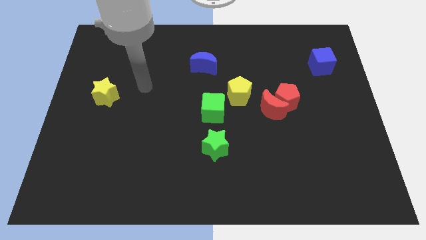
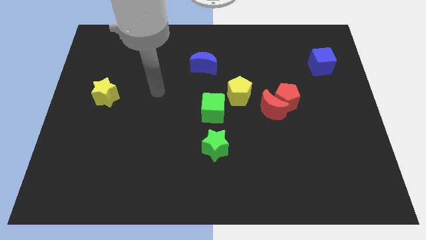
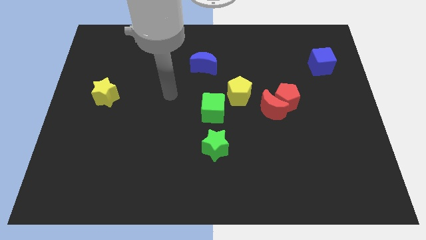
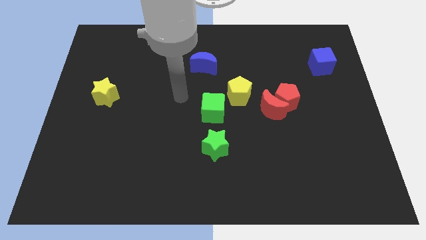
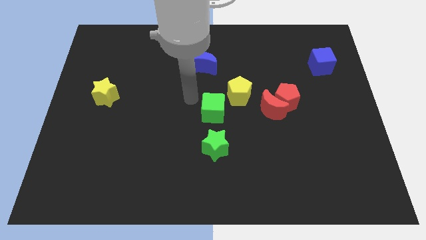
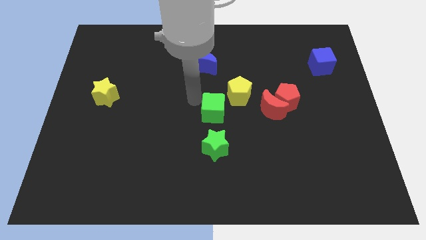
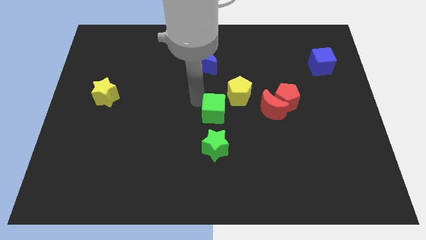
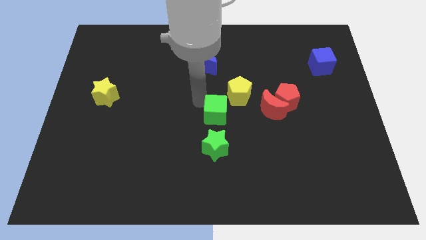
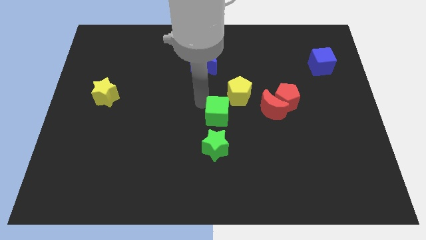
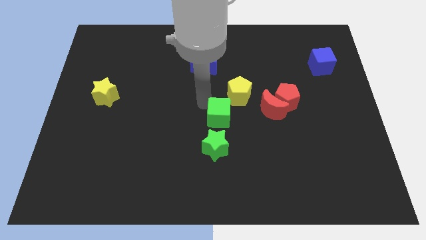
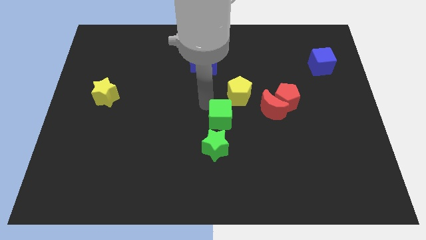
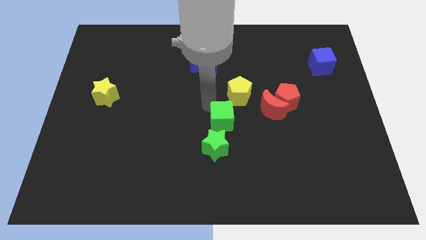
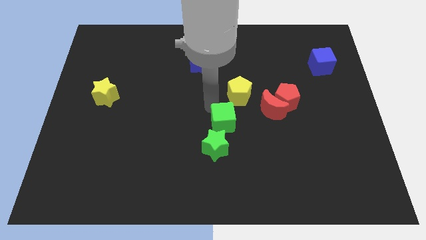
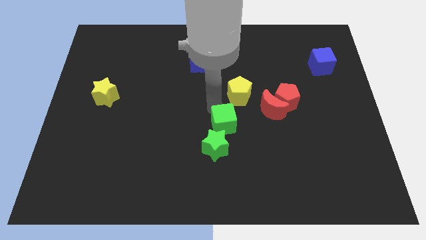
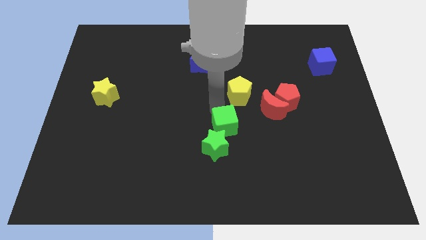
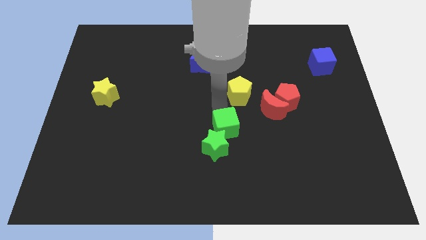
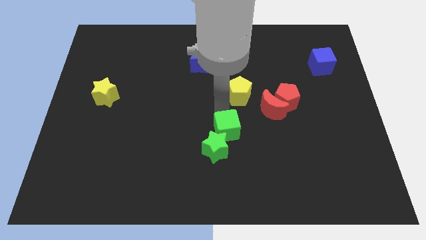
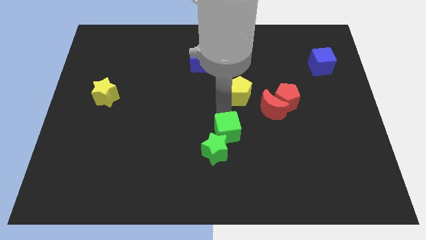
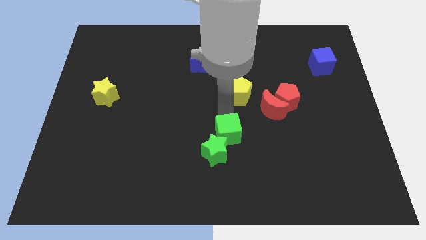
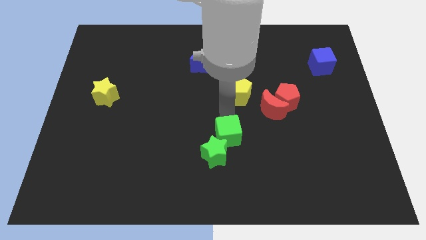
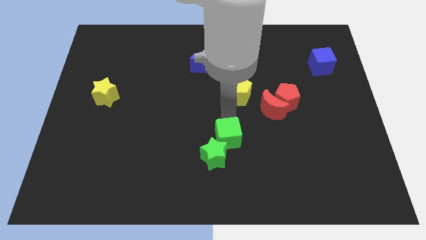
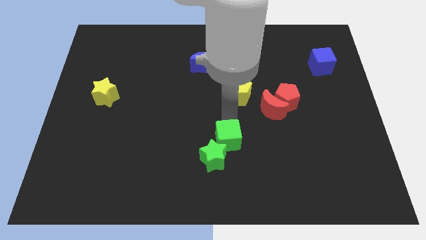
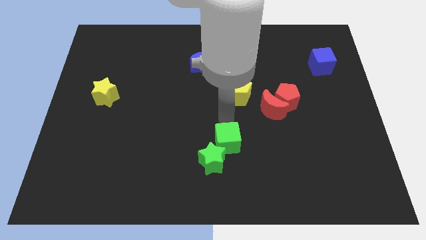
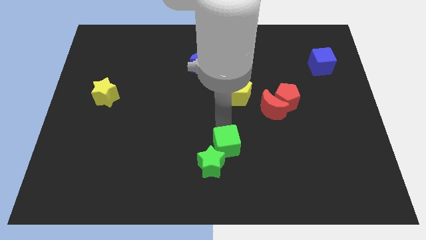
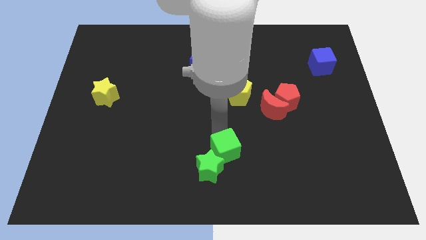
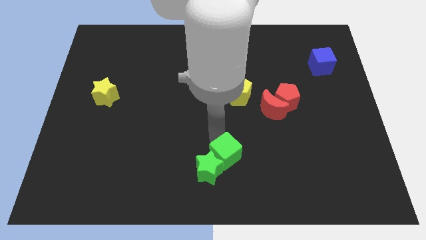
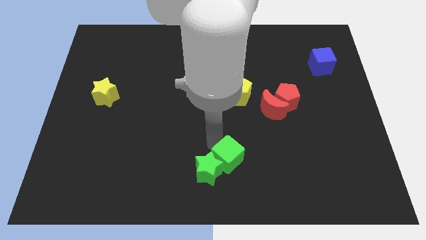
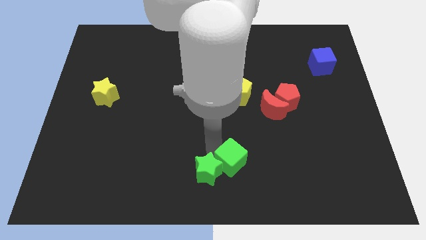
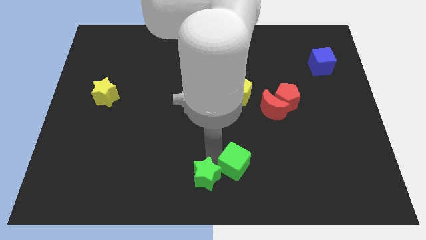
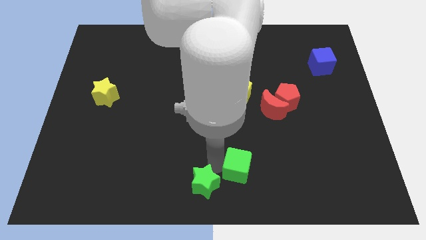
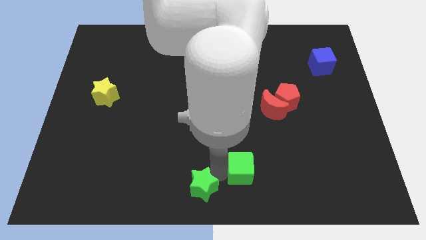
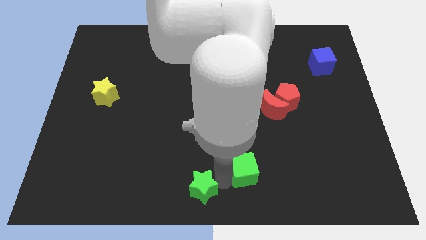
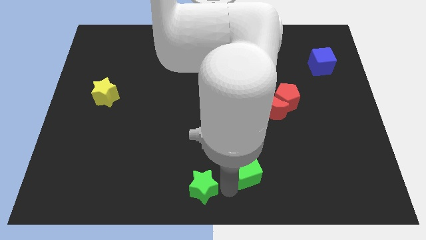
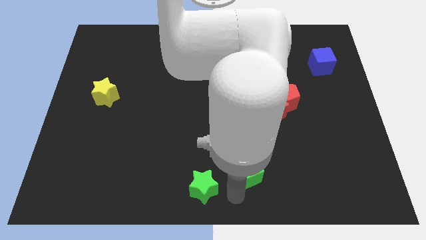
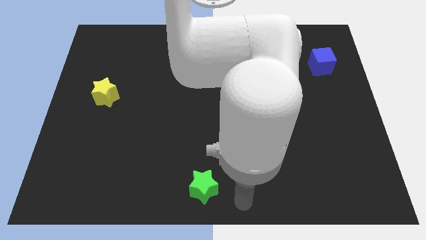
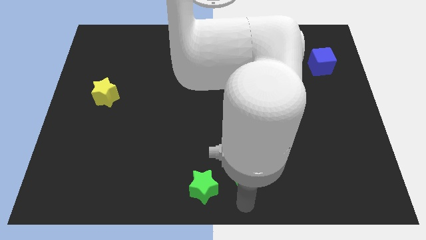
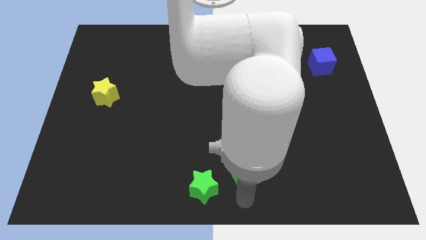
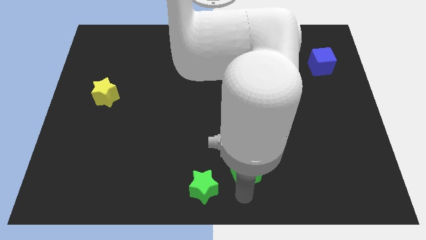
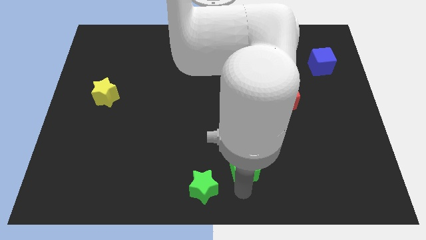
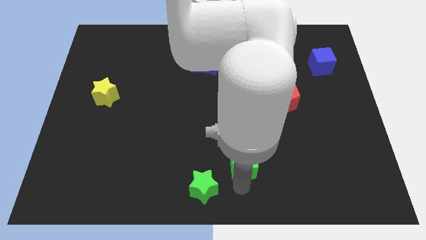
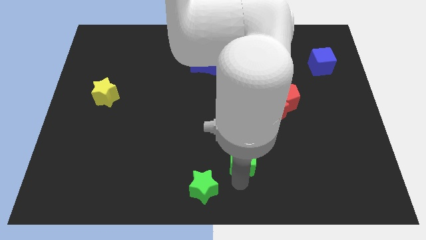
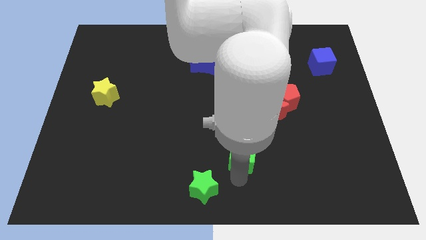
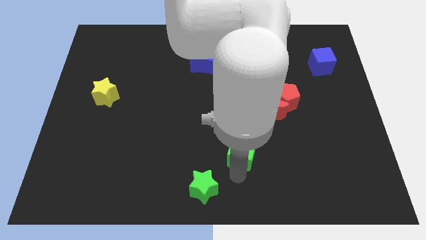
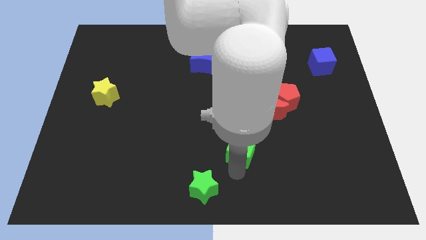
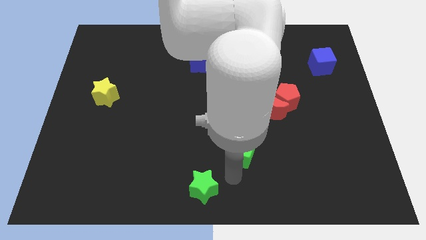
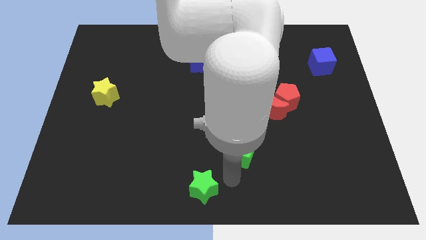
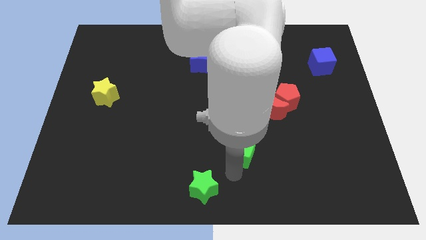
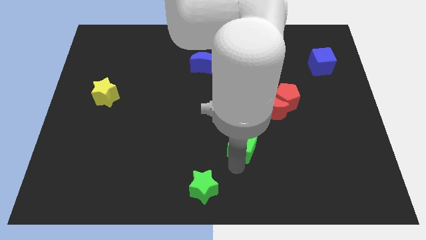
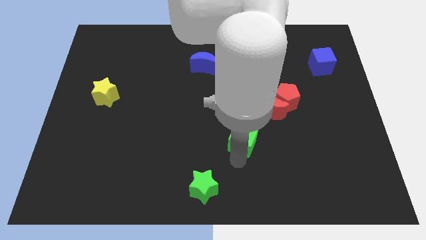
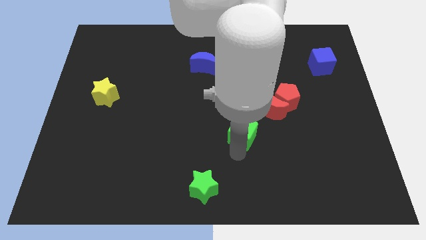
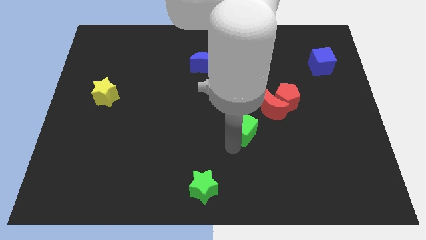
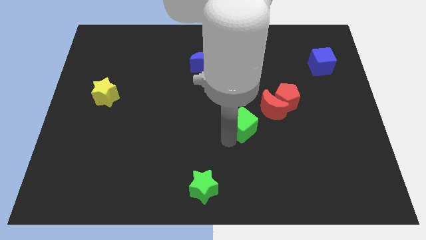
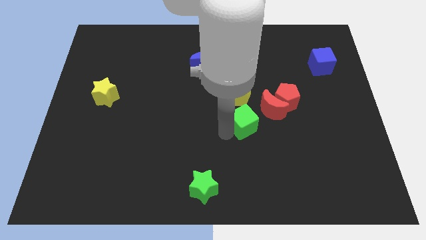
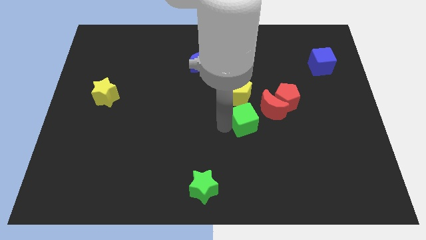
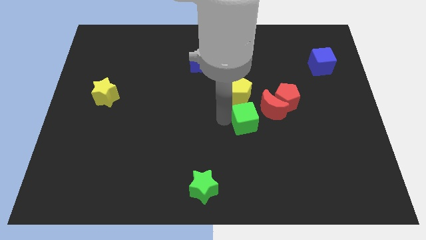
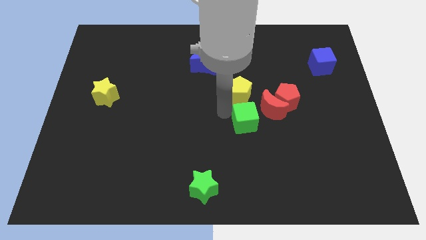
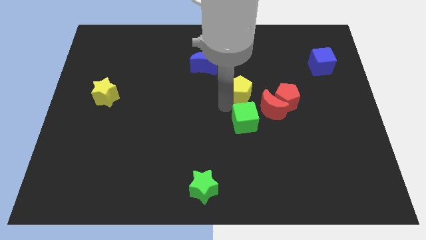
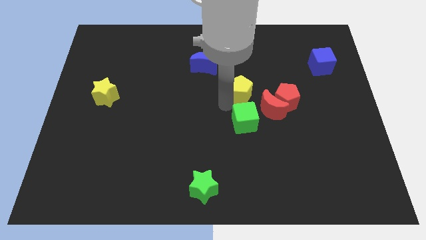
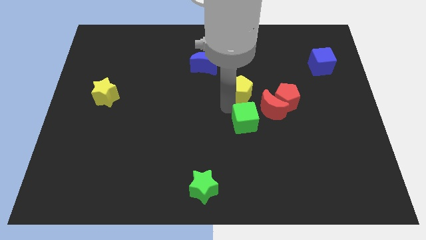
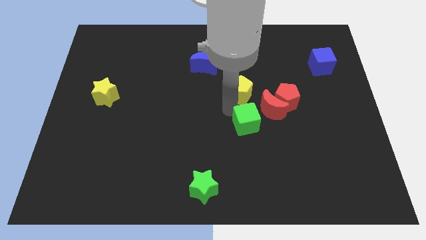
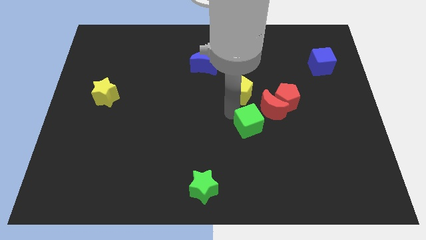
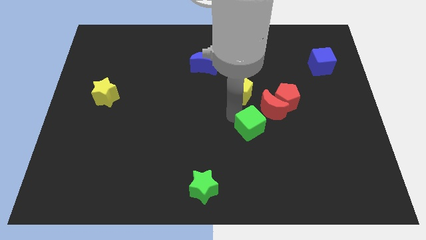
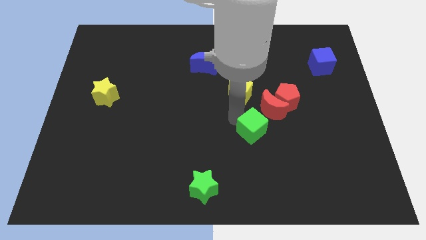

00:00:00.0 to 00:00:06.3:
push the green cube to the bottom side of the red moon

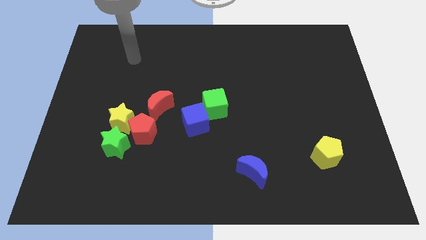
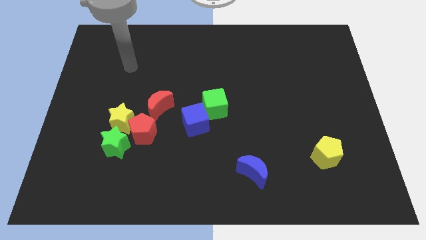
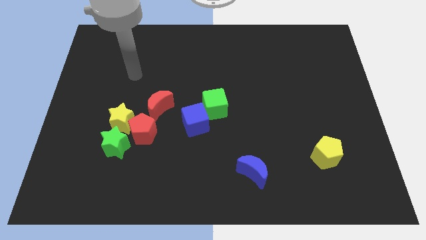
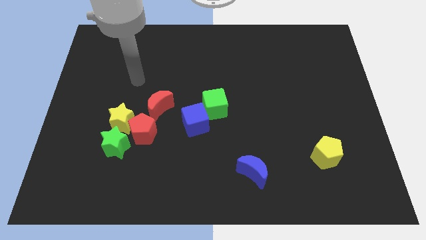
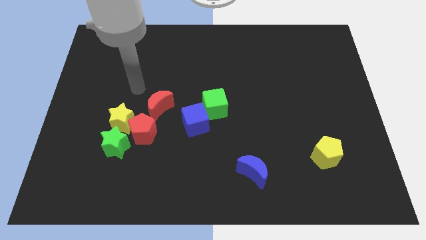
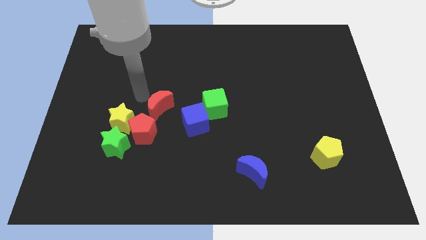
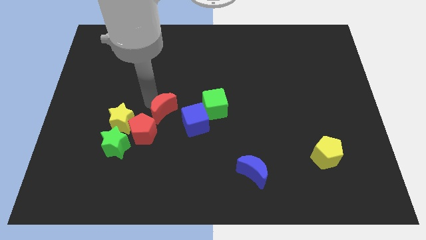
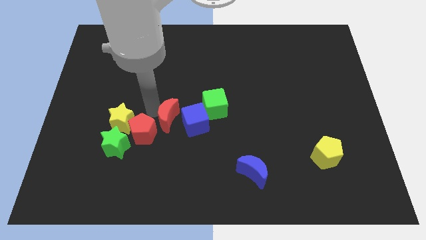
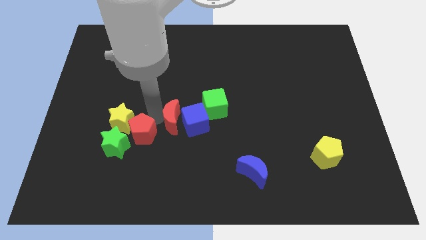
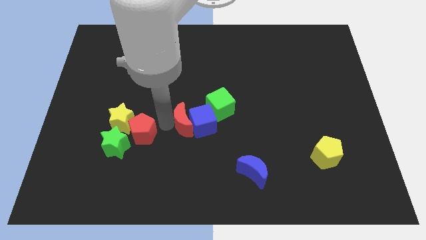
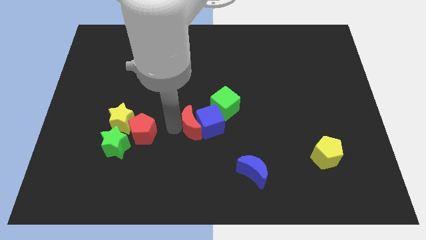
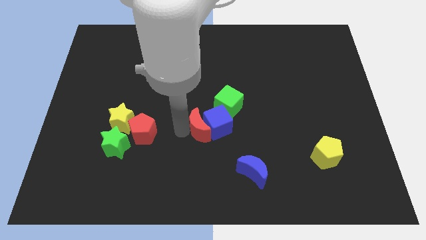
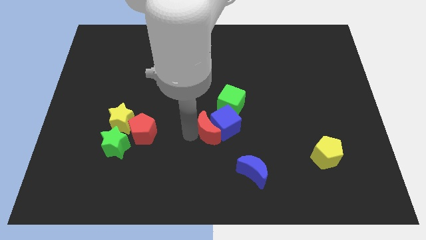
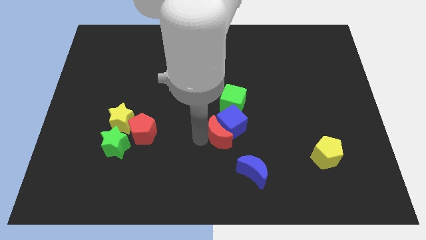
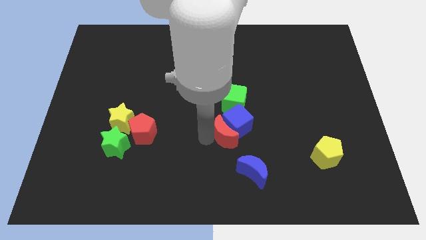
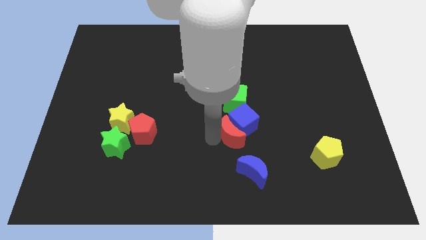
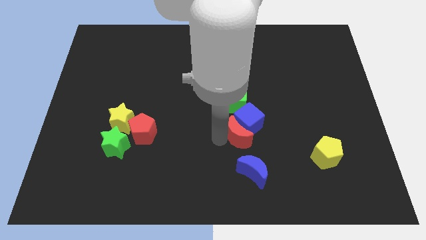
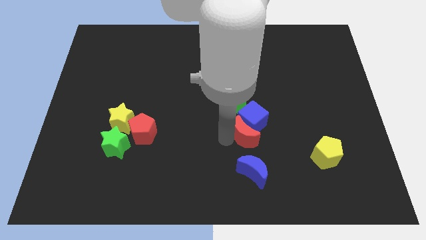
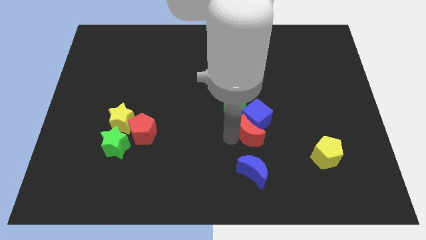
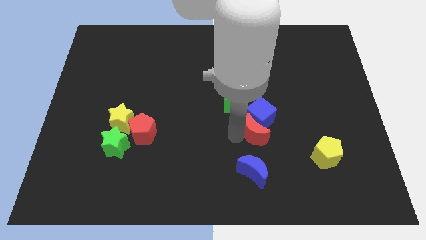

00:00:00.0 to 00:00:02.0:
move the blue cube just right of the green cube

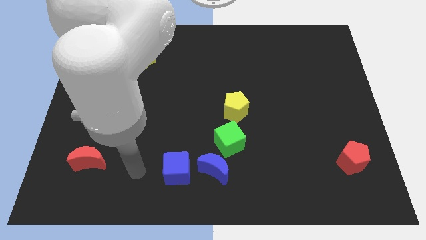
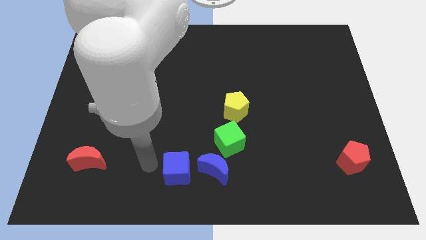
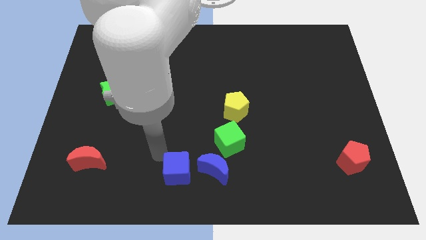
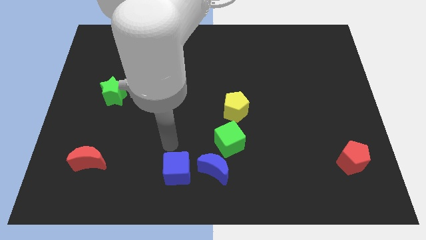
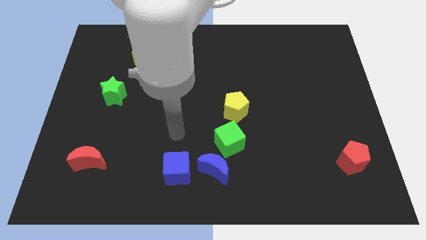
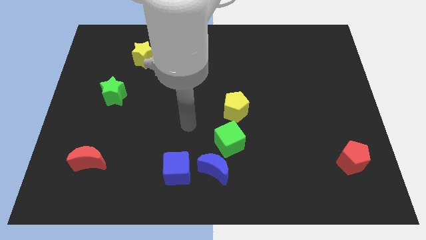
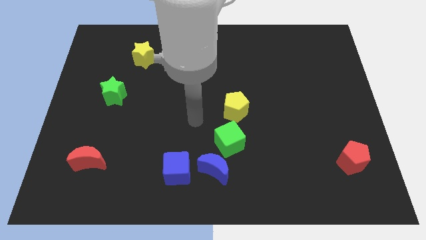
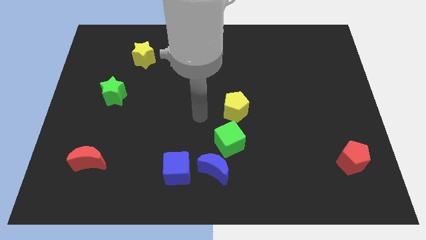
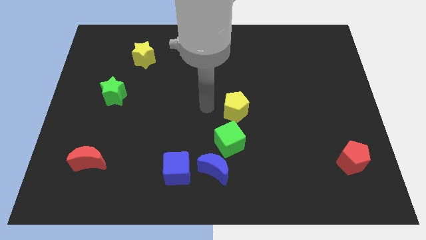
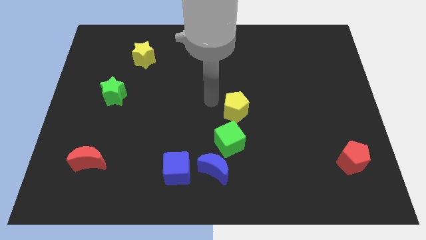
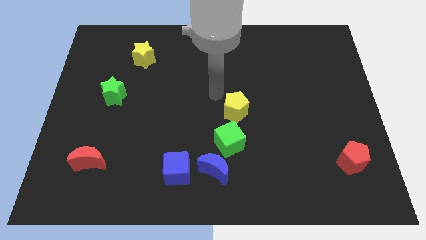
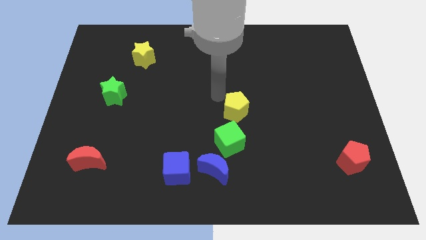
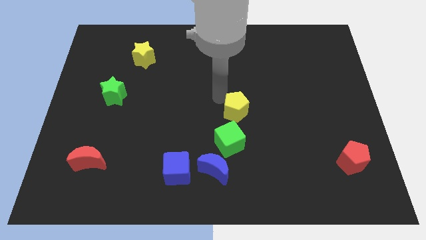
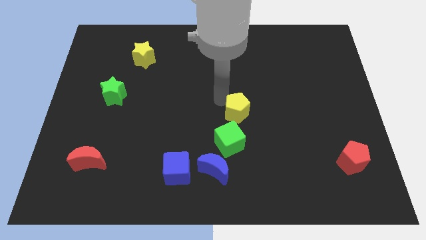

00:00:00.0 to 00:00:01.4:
slide the yellow pentagon to the top right of the green cube
